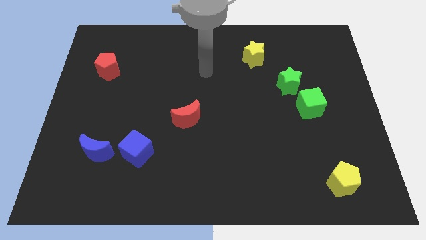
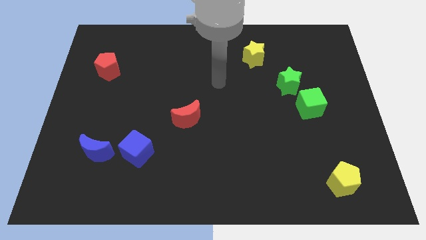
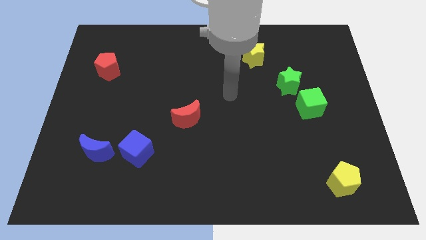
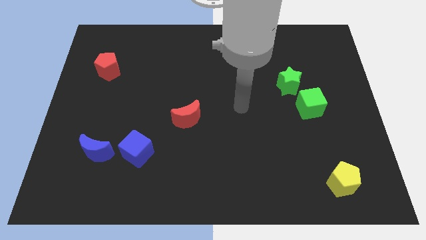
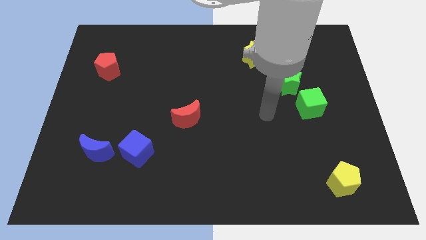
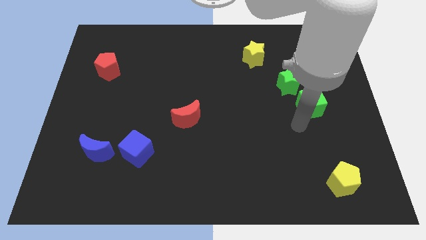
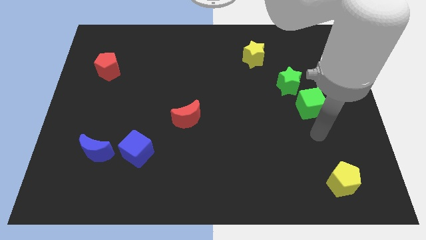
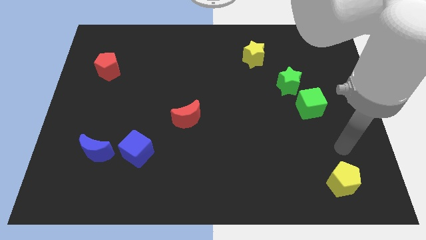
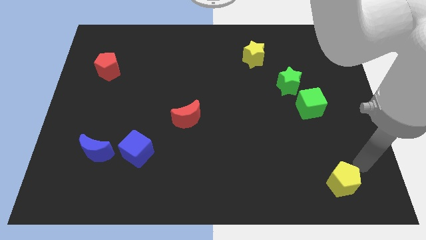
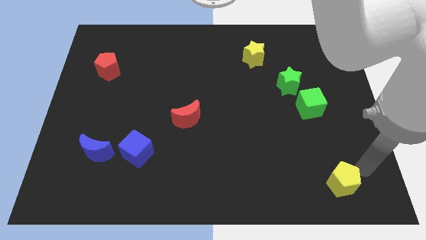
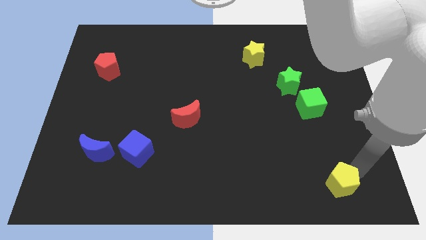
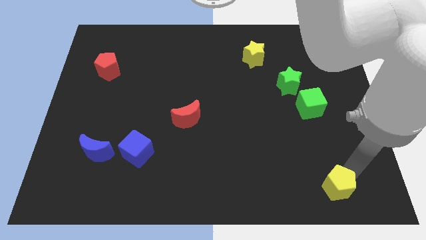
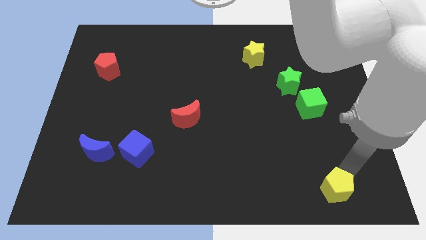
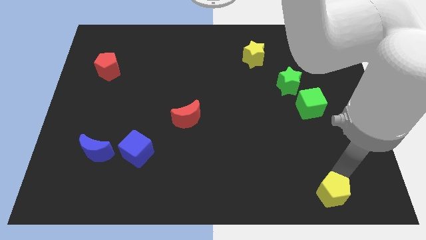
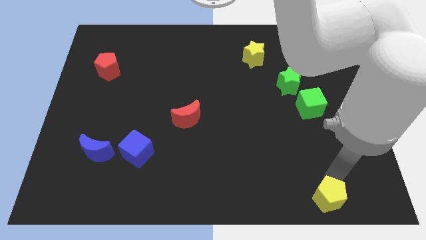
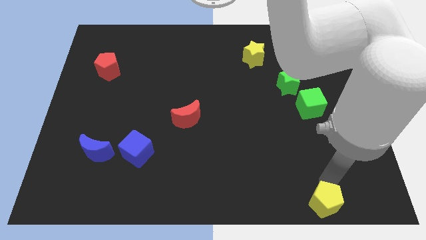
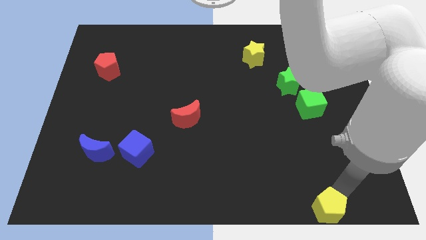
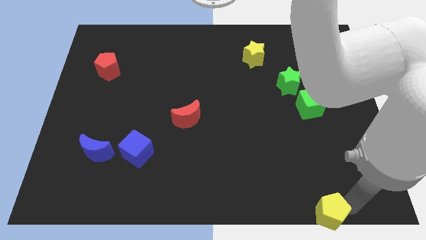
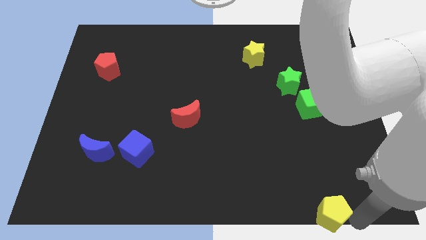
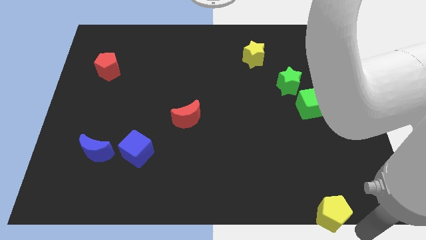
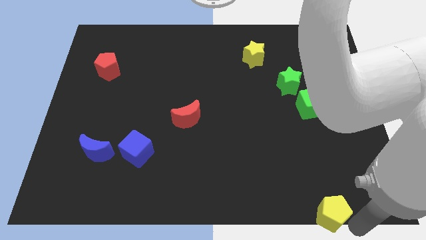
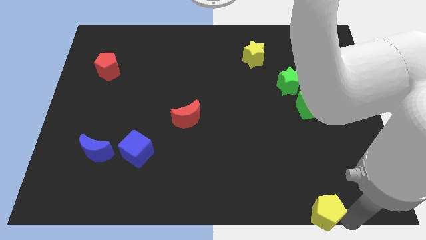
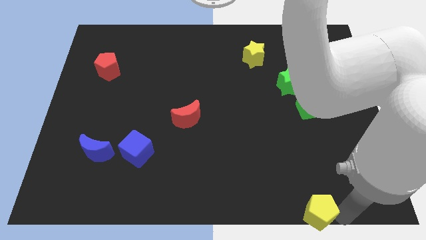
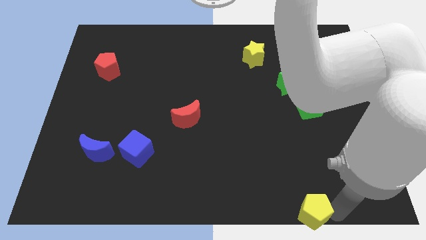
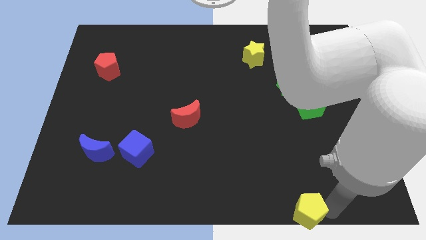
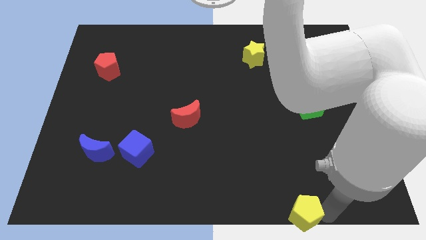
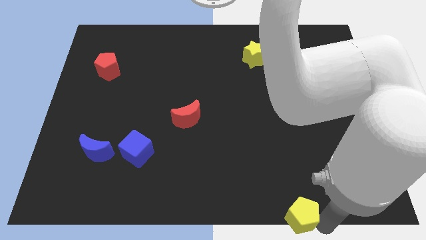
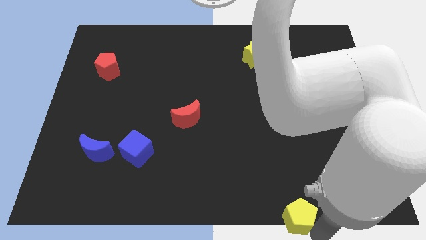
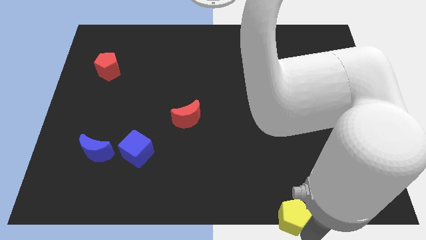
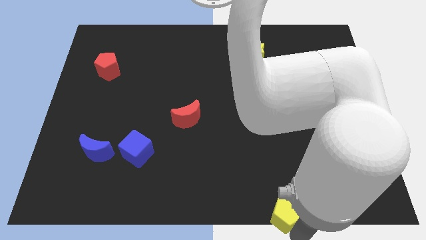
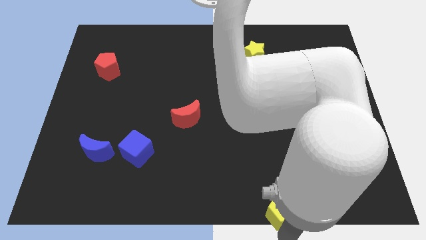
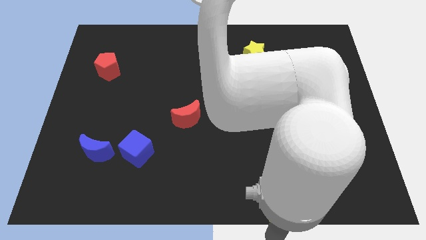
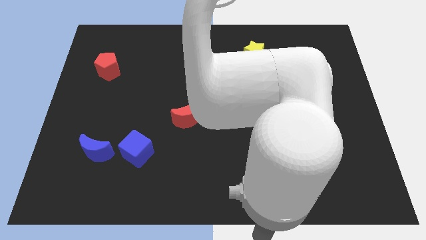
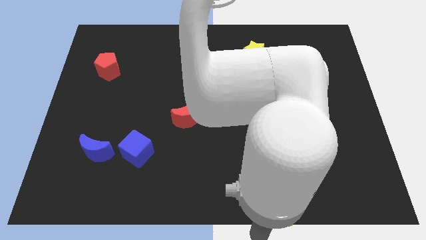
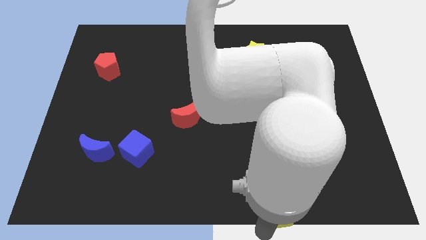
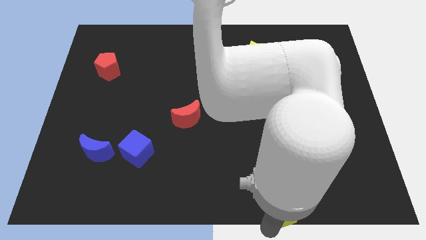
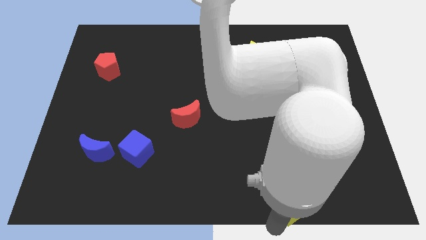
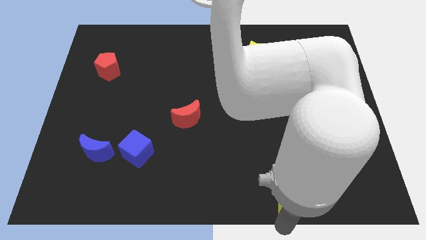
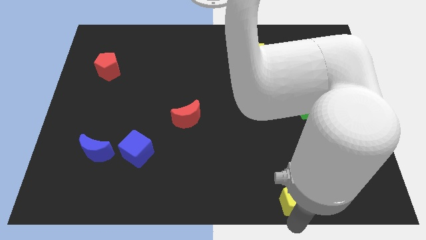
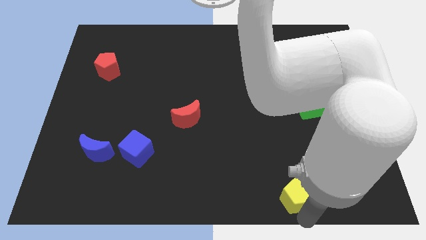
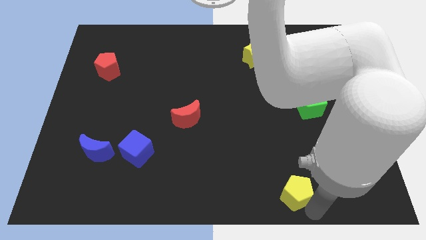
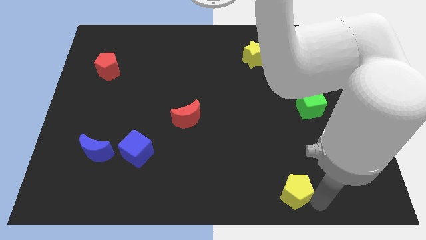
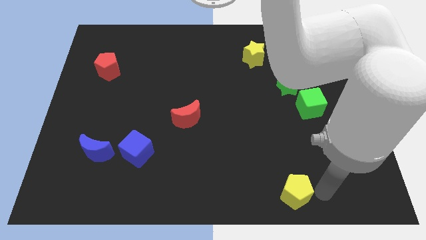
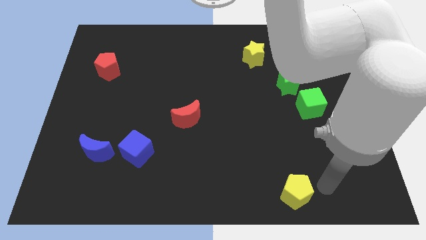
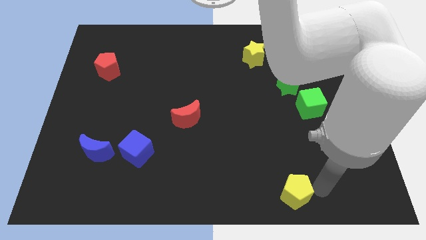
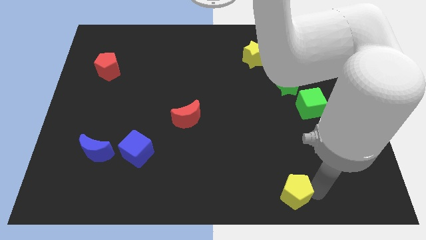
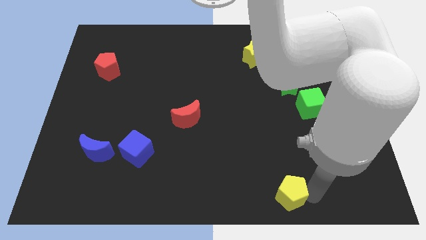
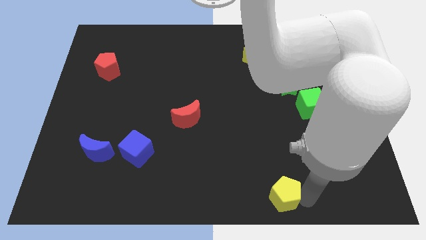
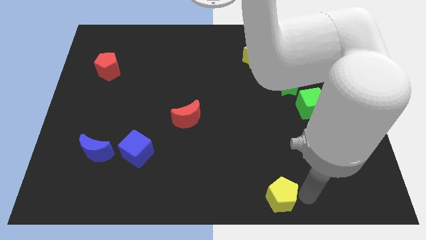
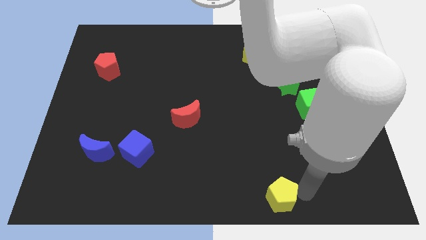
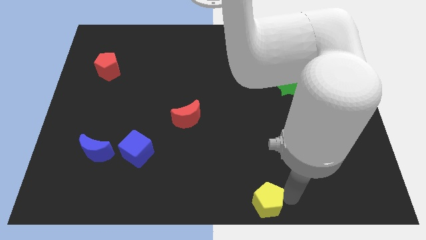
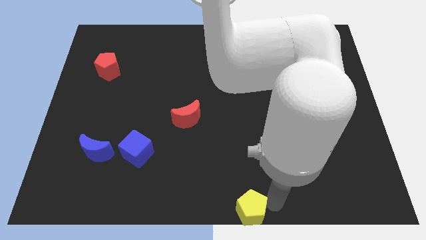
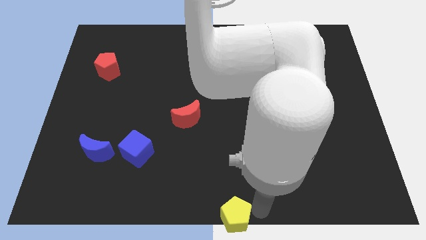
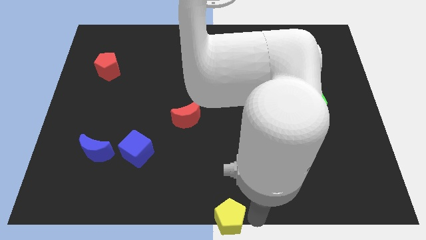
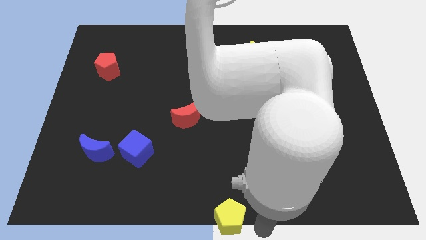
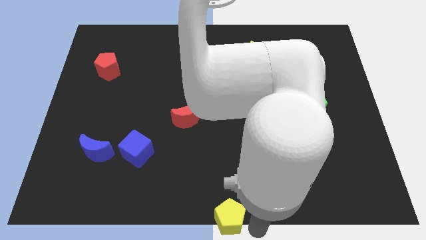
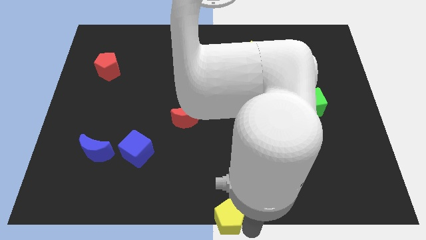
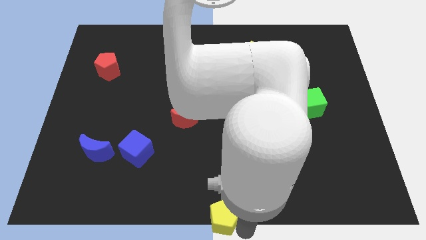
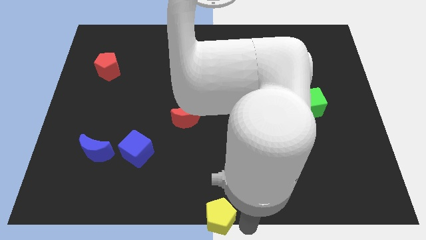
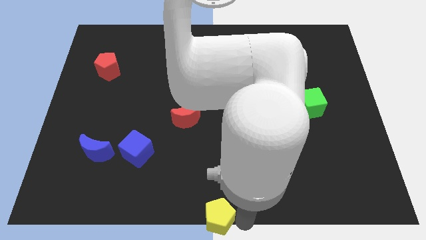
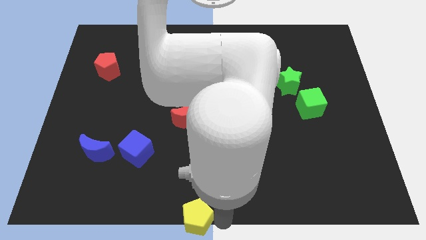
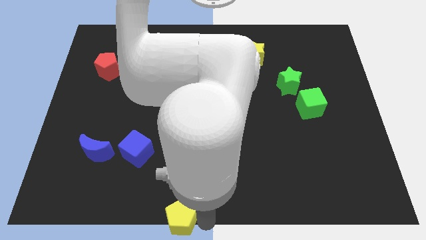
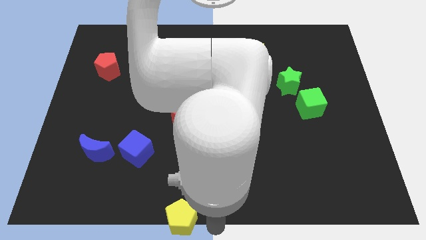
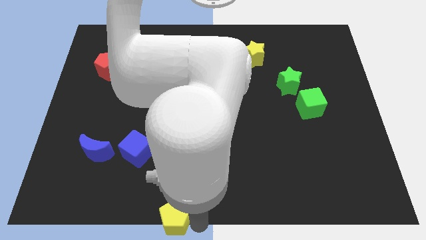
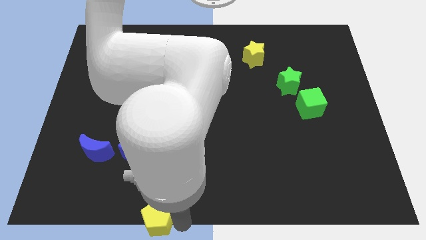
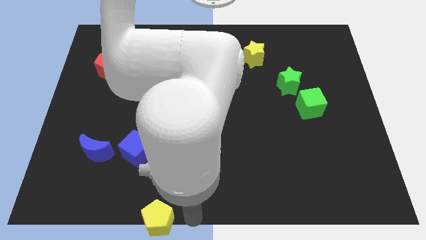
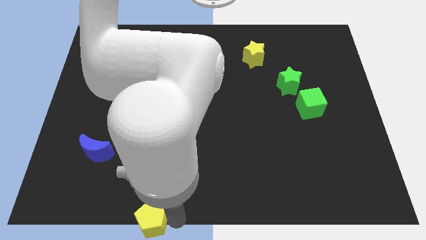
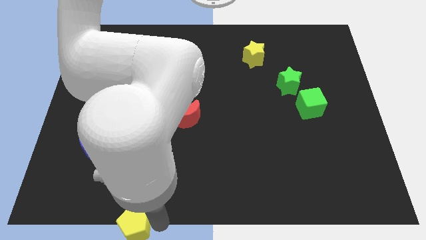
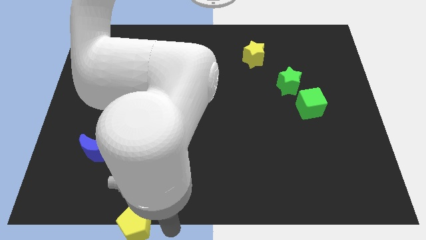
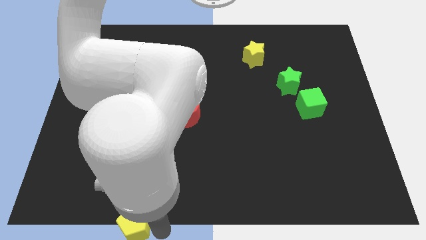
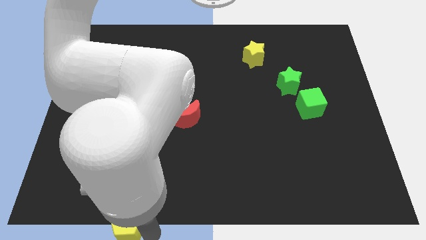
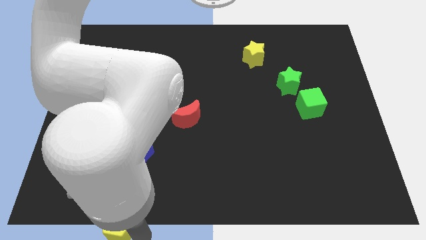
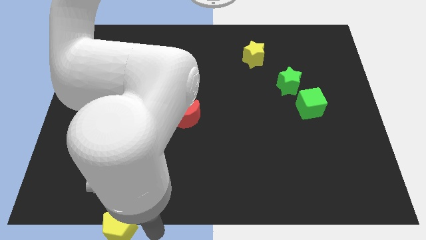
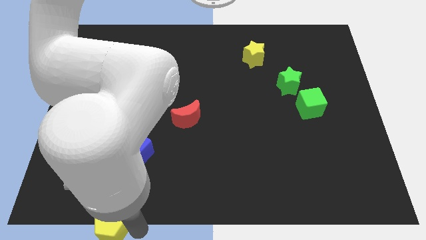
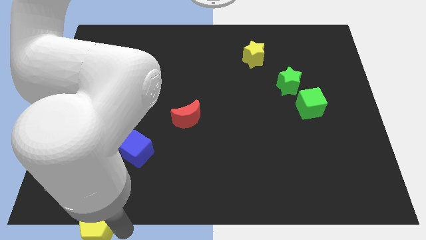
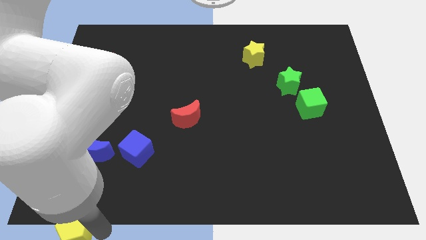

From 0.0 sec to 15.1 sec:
slide the yellow pentagon to the lower left corner
